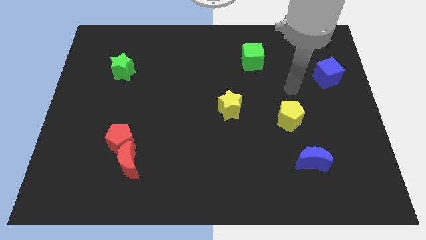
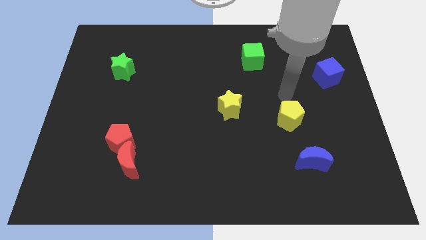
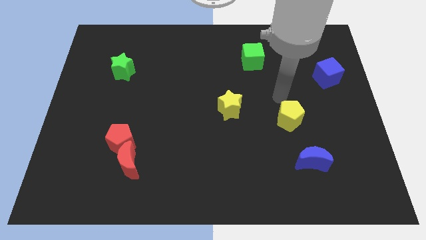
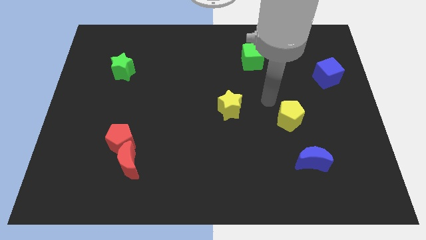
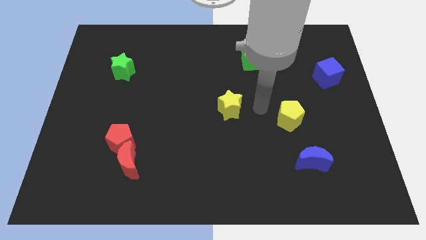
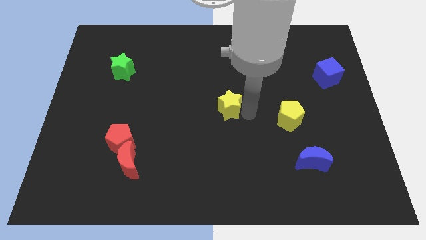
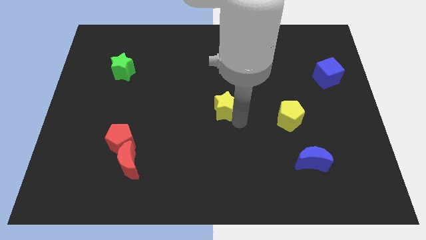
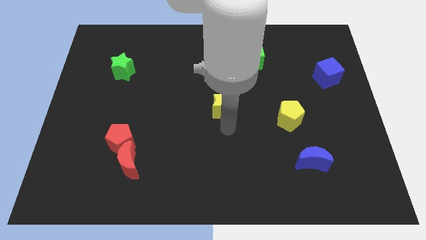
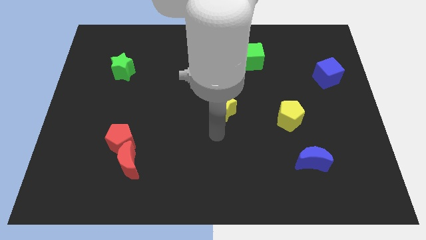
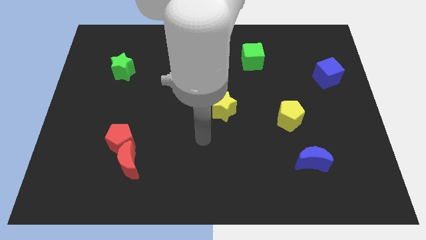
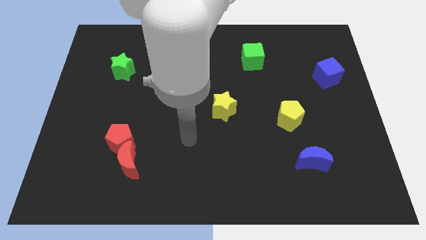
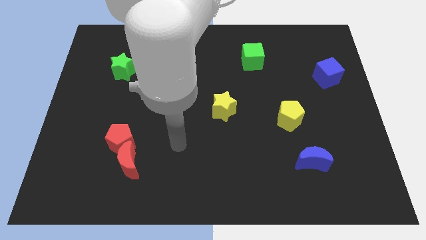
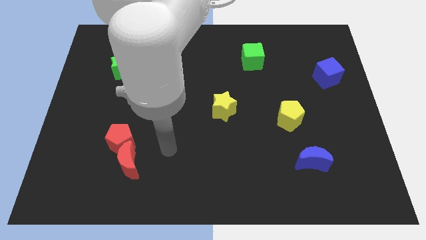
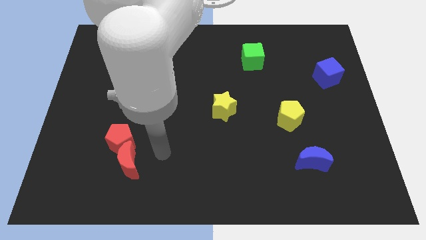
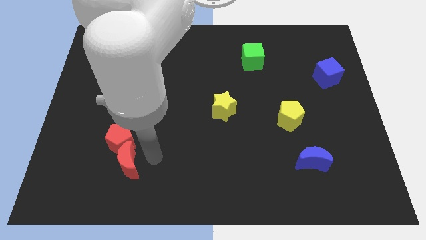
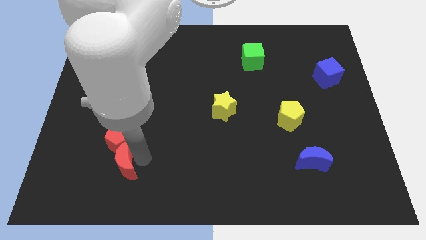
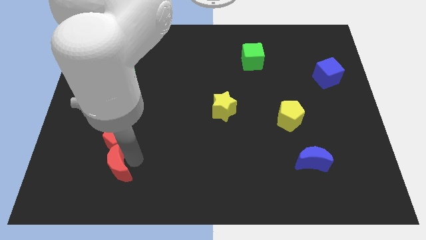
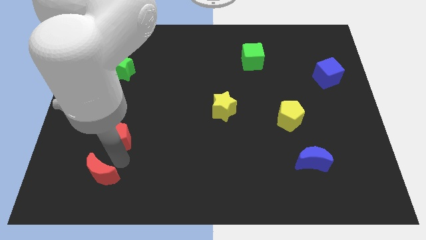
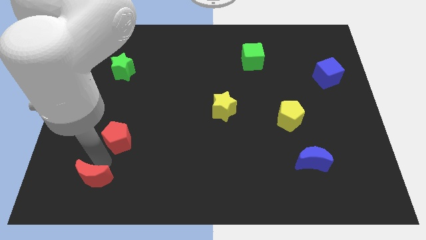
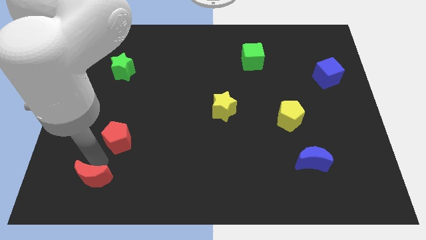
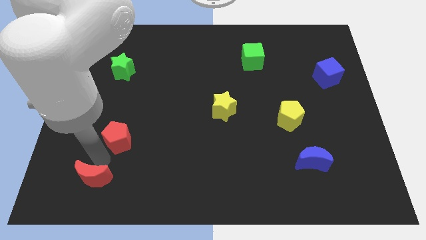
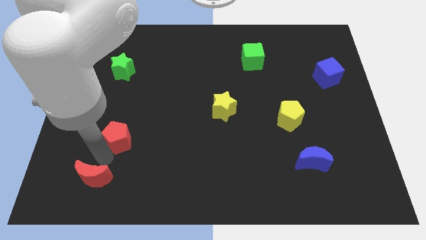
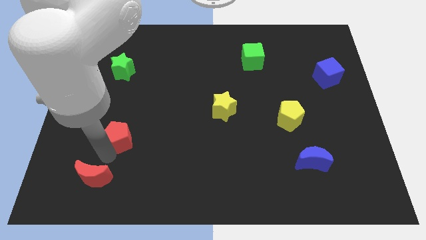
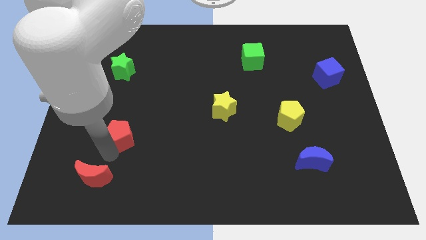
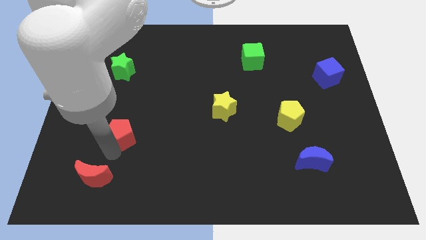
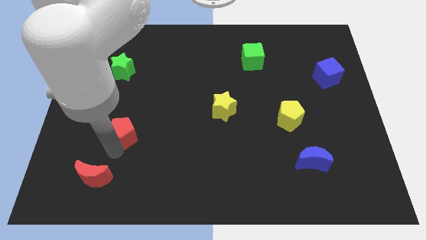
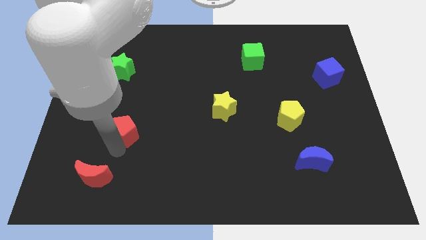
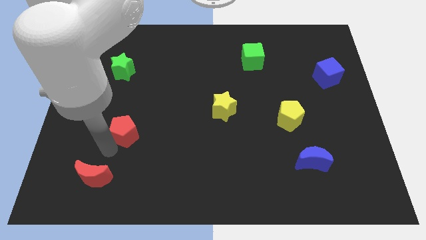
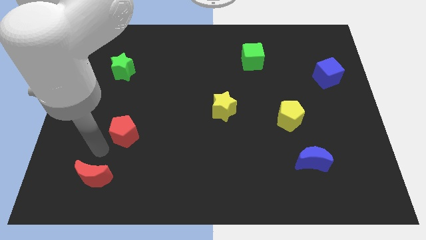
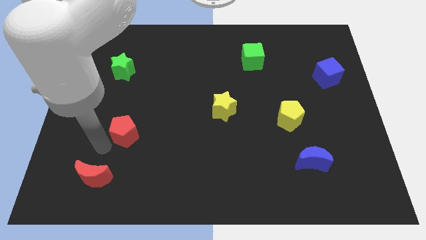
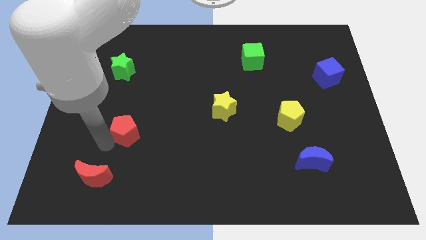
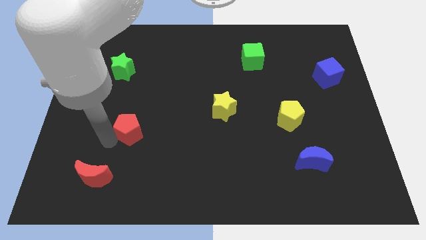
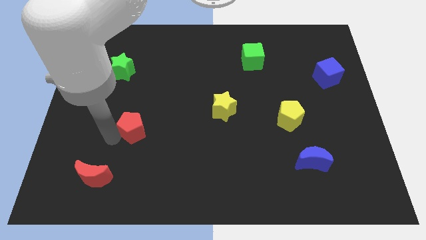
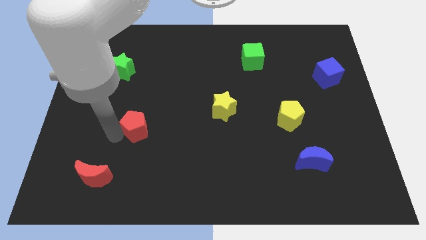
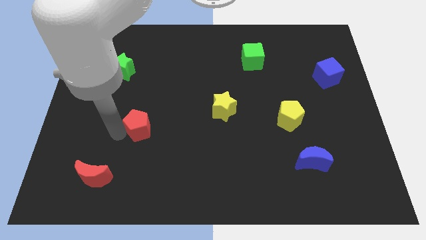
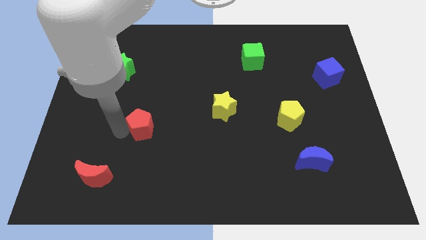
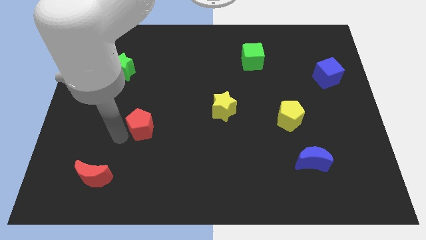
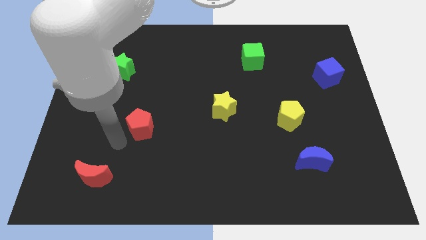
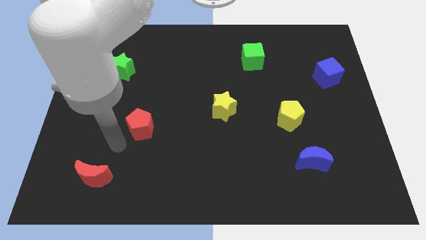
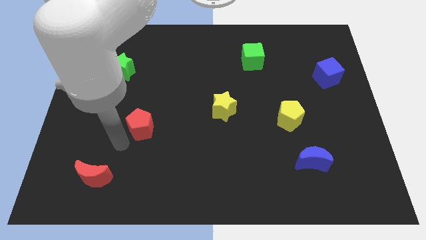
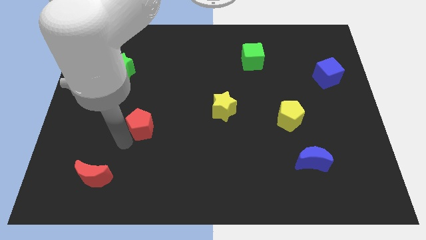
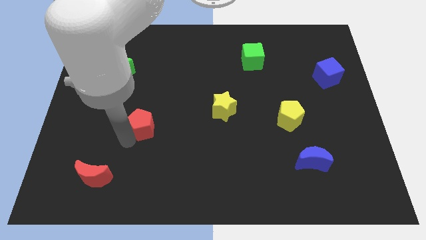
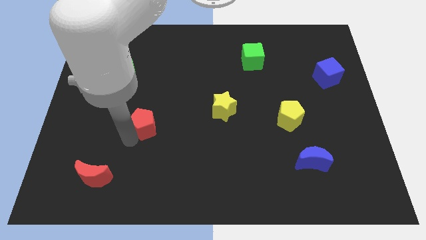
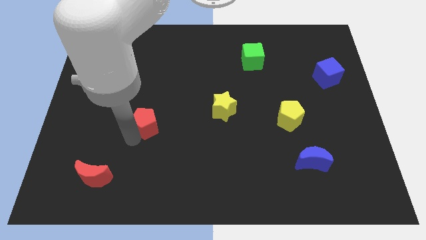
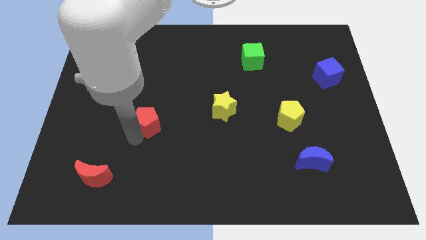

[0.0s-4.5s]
move the red pentagon up and to the right diagonally a little bit

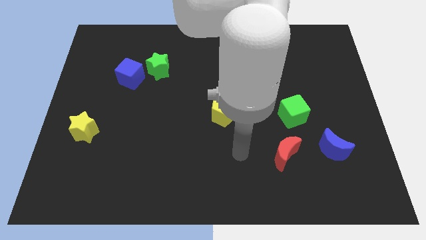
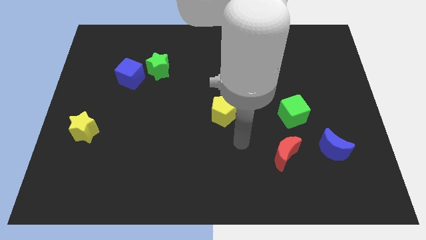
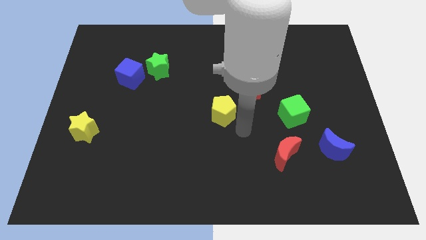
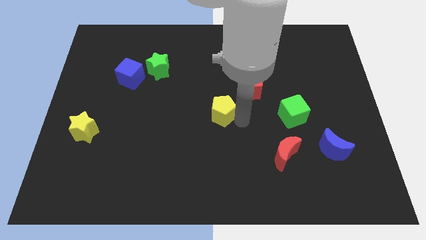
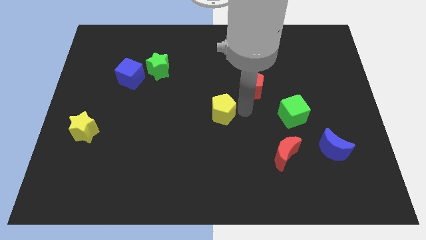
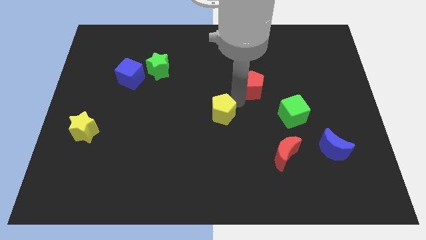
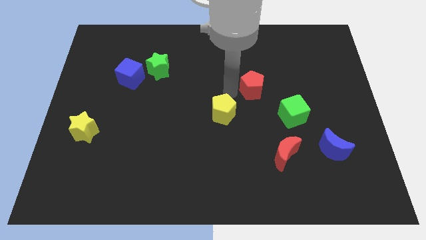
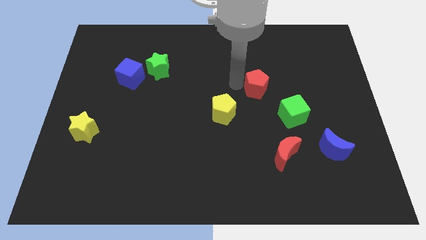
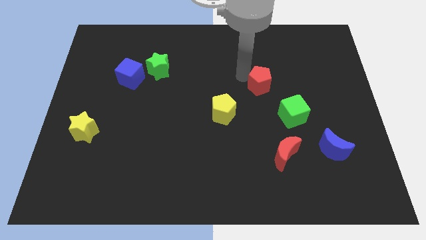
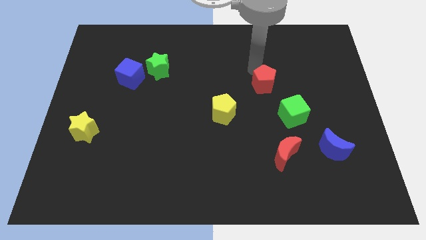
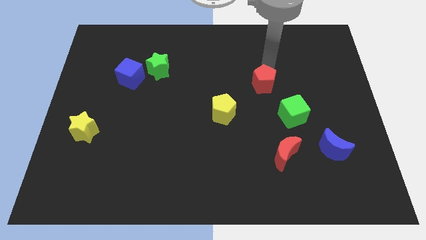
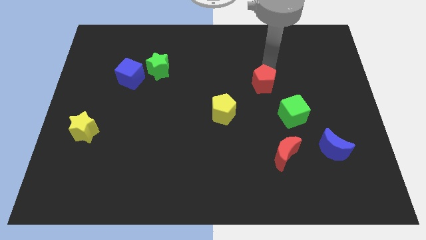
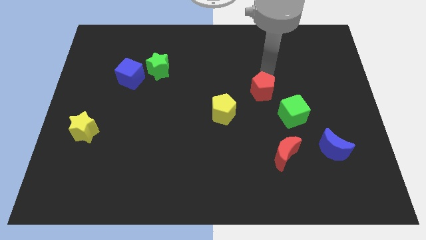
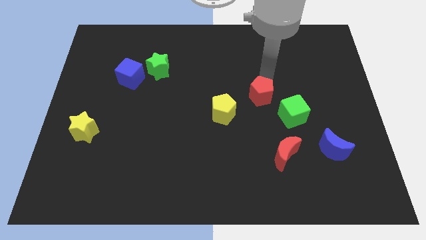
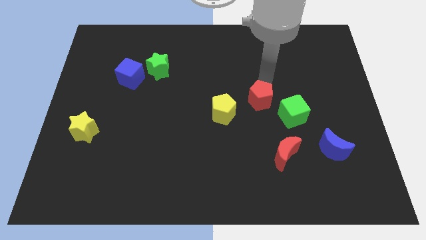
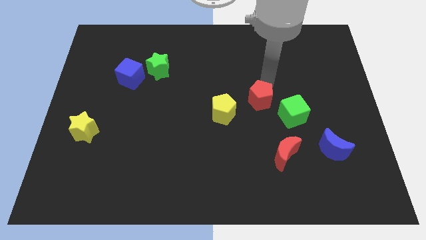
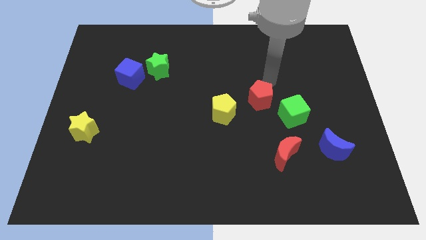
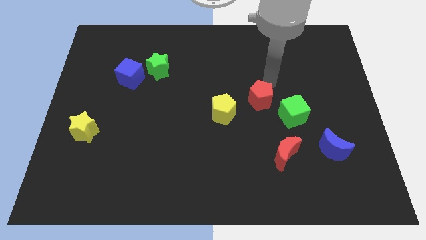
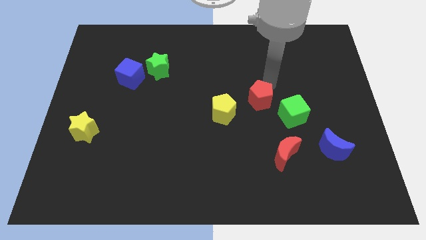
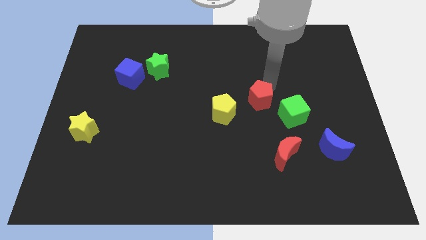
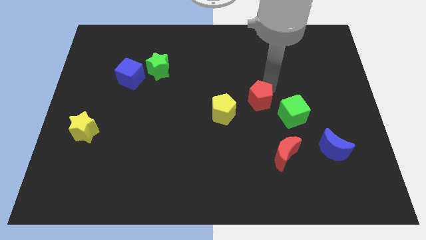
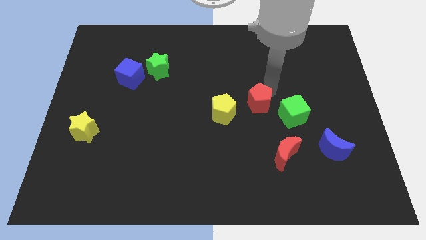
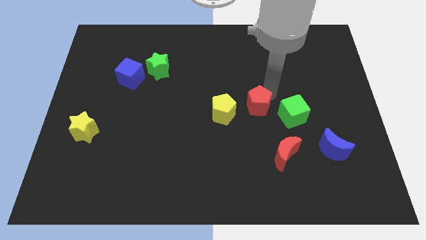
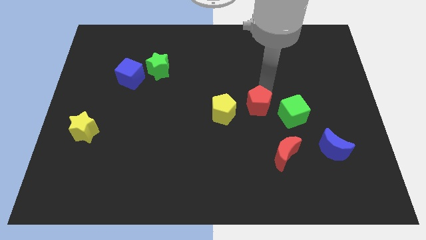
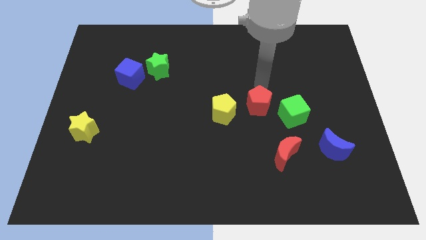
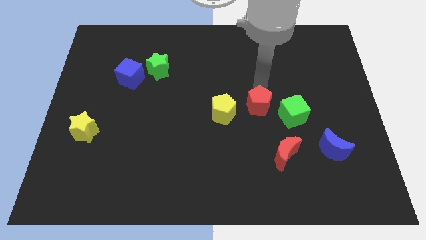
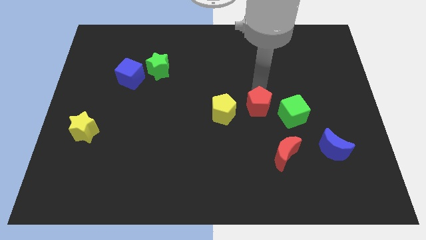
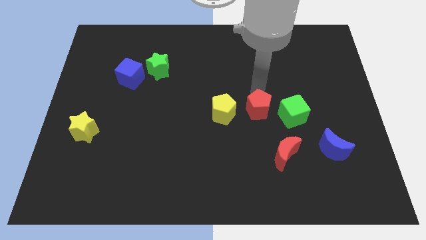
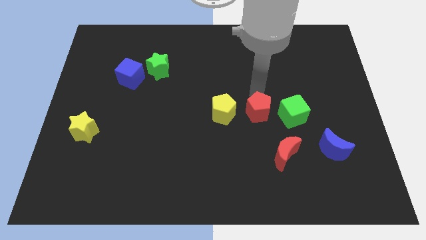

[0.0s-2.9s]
push the red pentagon a bit downwards

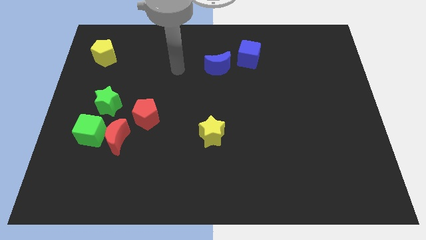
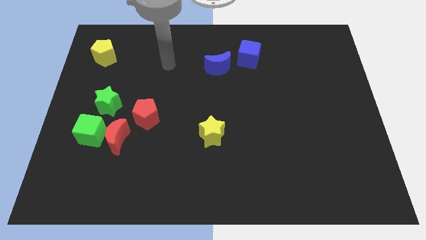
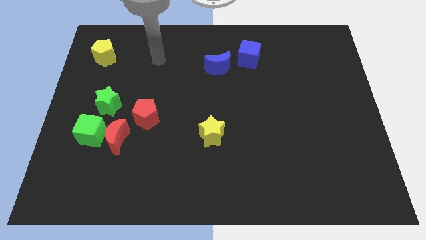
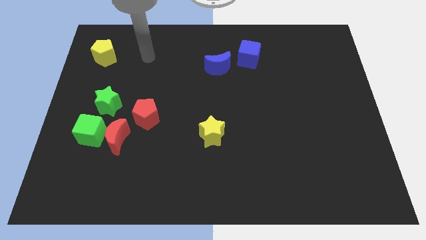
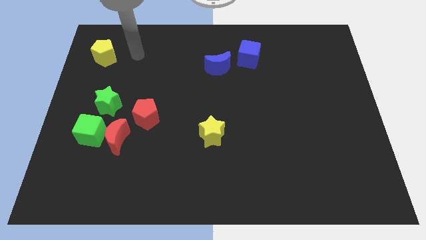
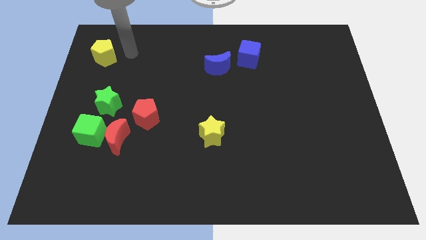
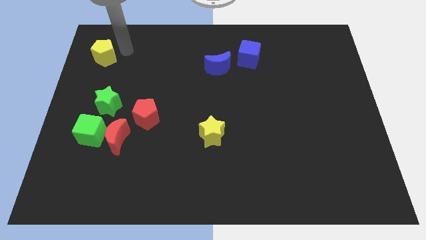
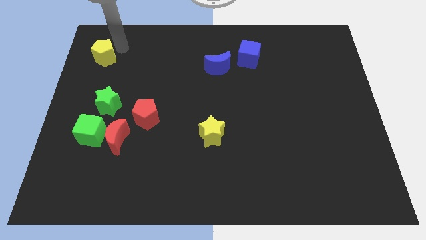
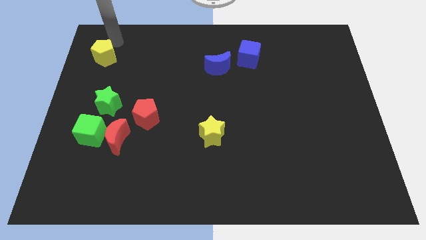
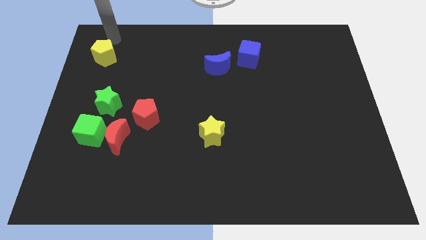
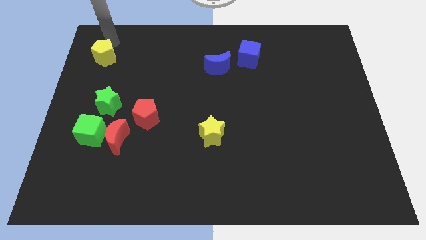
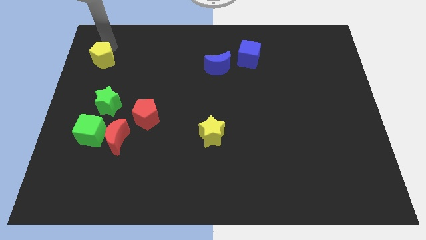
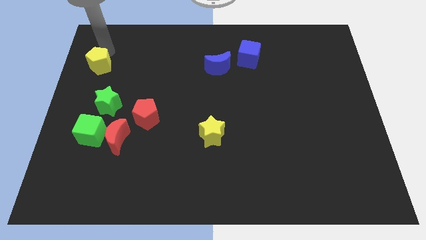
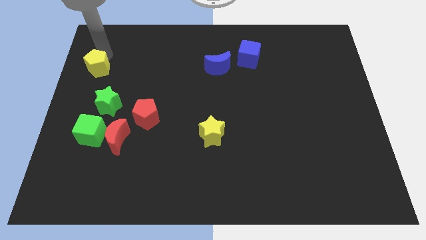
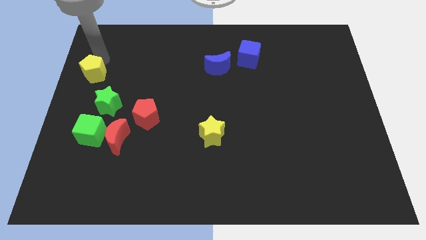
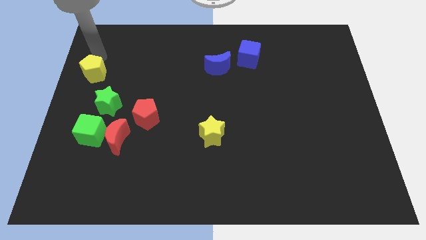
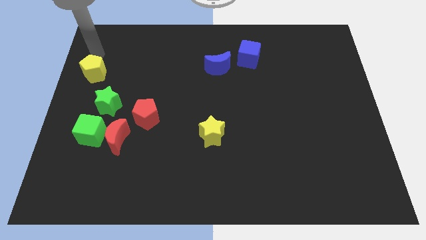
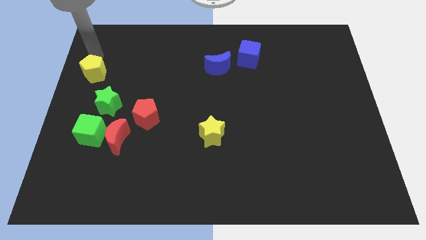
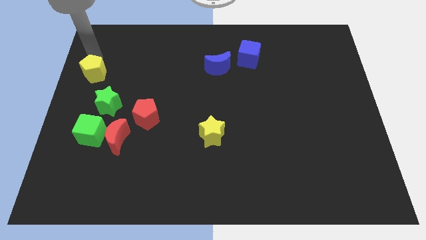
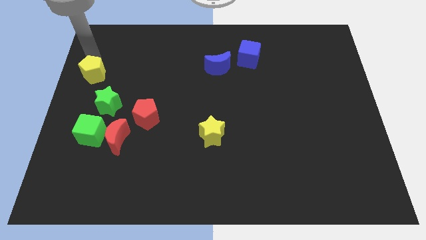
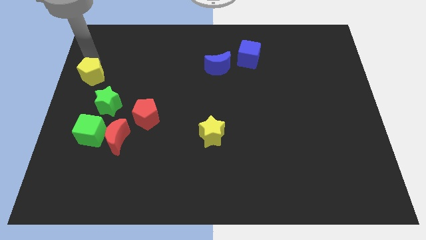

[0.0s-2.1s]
slightly push the yellow pentagon down
